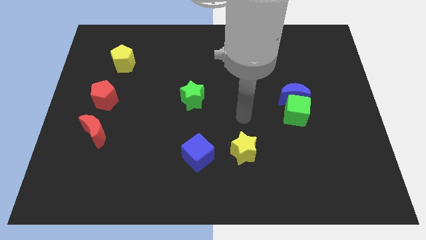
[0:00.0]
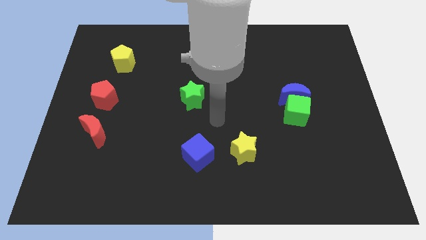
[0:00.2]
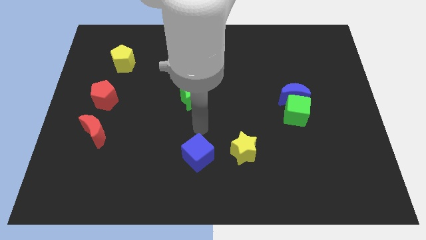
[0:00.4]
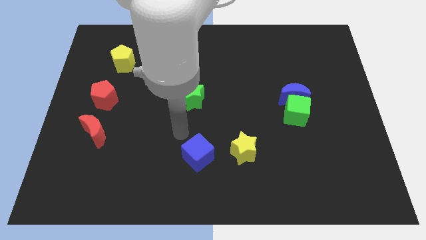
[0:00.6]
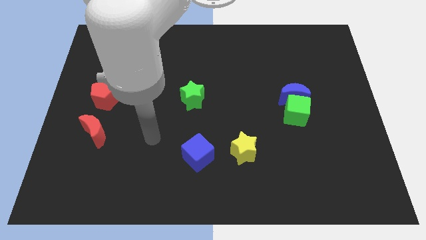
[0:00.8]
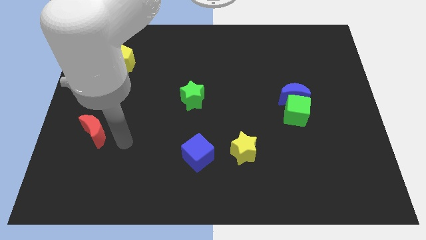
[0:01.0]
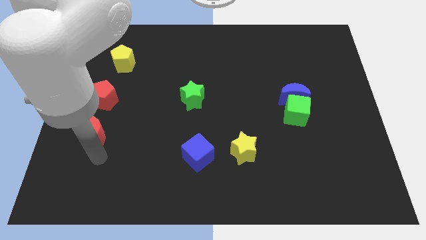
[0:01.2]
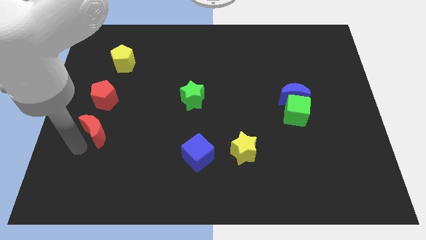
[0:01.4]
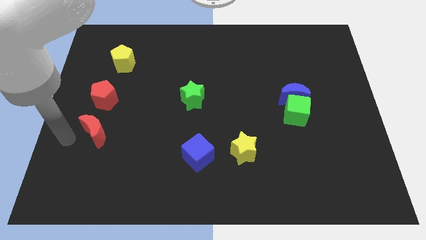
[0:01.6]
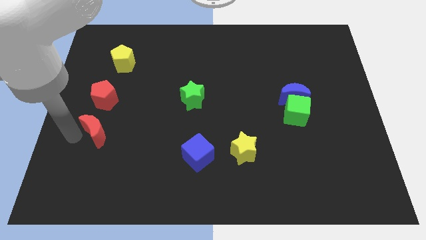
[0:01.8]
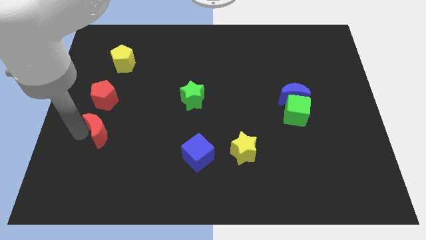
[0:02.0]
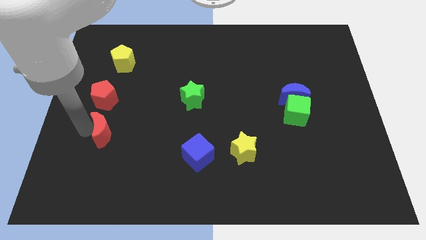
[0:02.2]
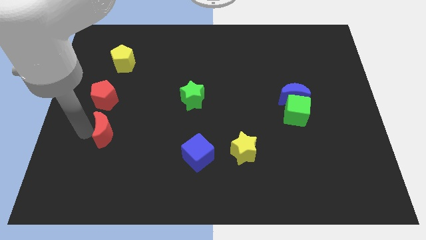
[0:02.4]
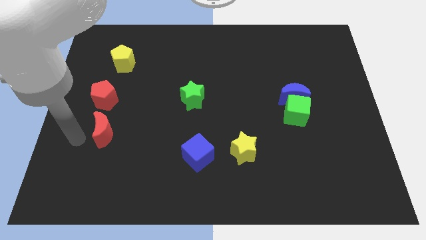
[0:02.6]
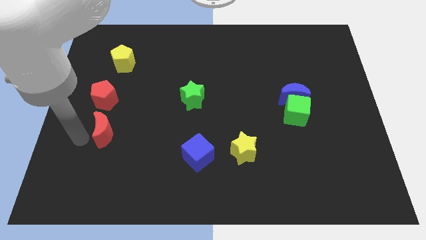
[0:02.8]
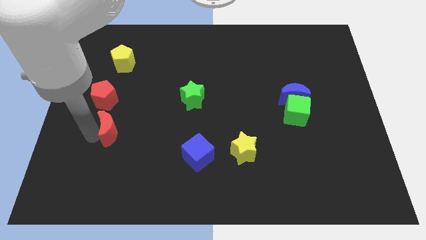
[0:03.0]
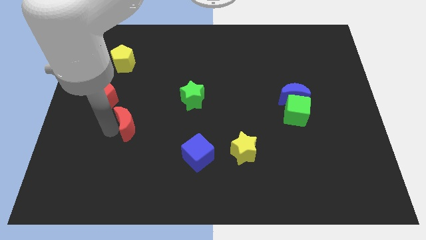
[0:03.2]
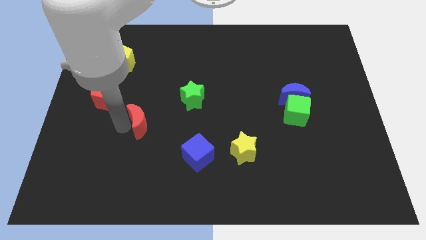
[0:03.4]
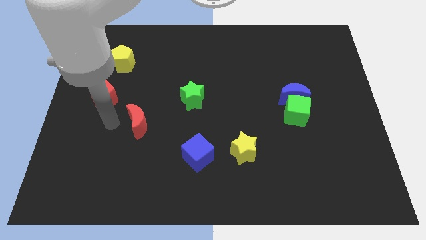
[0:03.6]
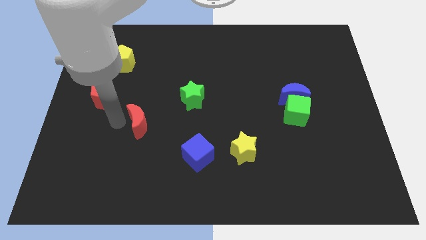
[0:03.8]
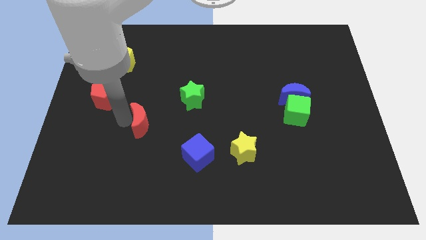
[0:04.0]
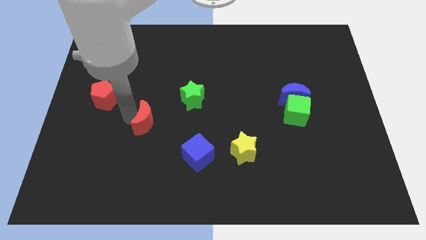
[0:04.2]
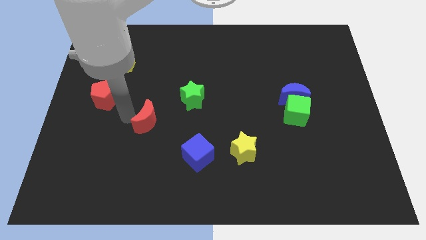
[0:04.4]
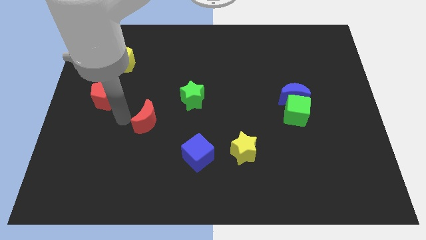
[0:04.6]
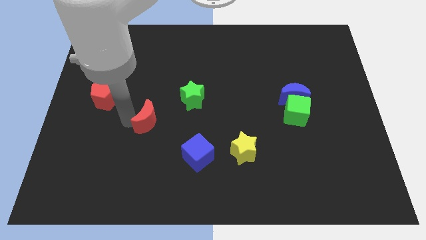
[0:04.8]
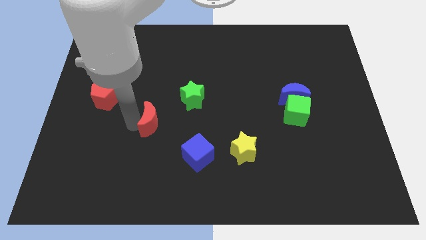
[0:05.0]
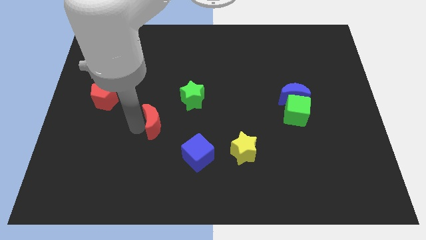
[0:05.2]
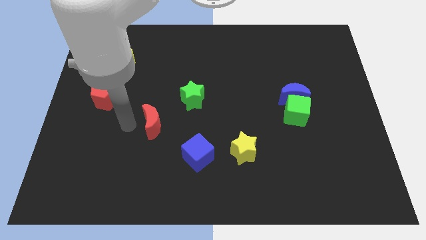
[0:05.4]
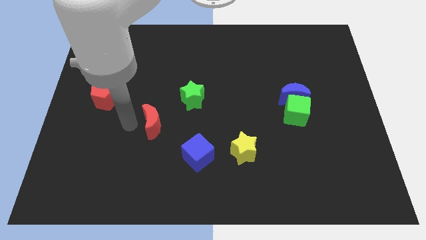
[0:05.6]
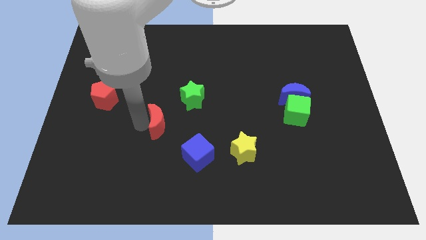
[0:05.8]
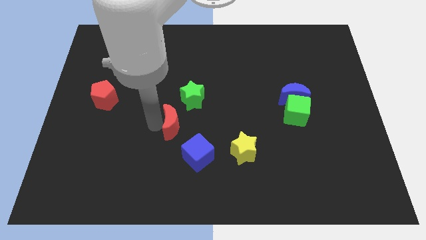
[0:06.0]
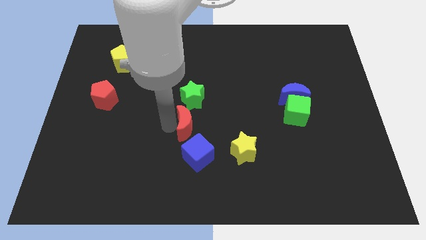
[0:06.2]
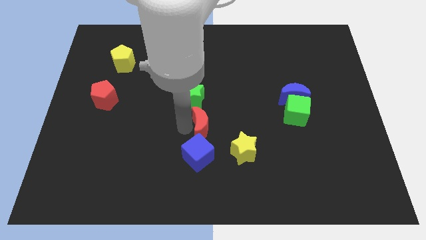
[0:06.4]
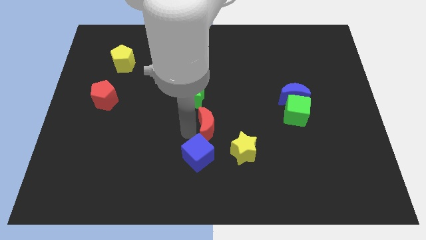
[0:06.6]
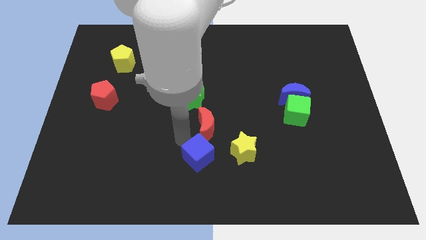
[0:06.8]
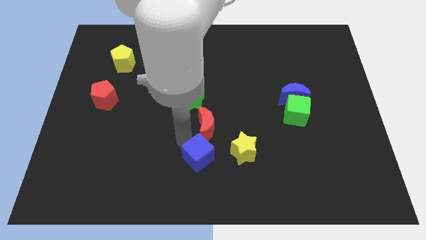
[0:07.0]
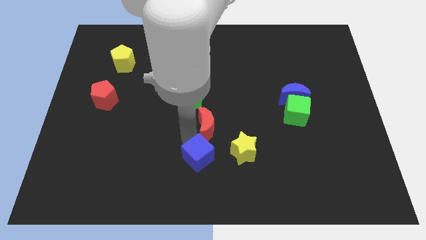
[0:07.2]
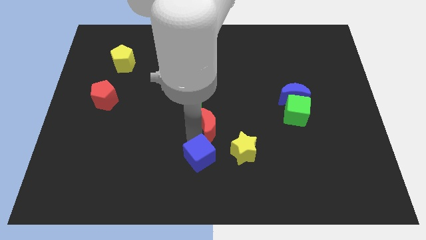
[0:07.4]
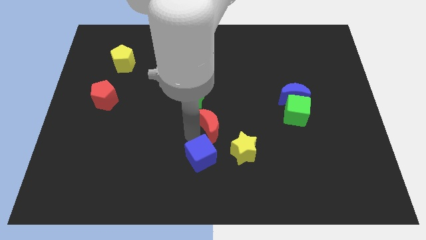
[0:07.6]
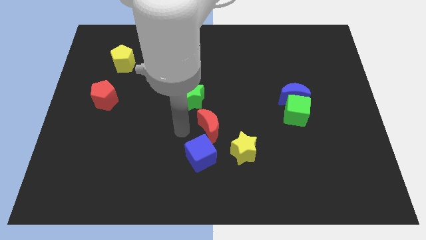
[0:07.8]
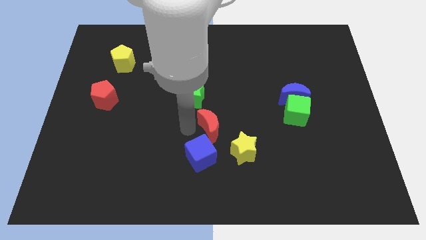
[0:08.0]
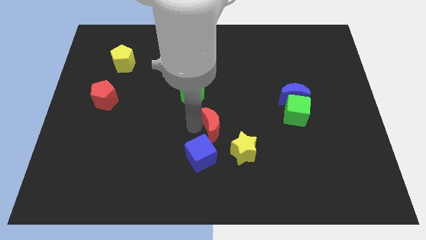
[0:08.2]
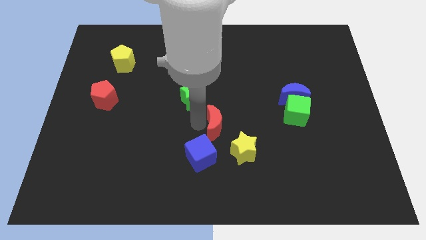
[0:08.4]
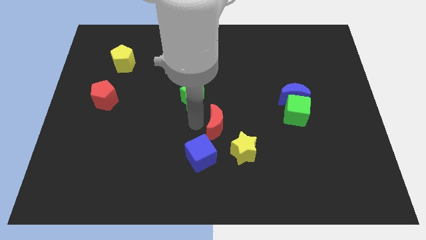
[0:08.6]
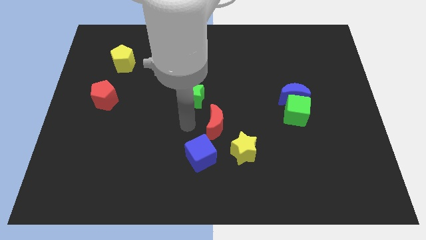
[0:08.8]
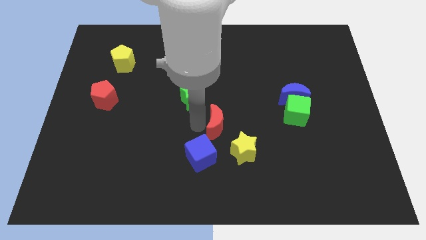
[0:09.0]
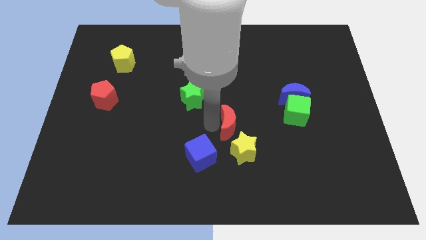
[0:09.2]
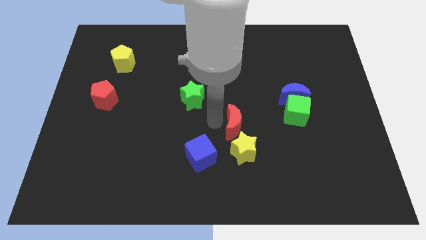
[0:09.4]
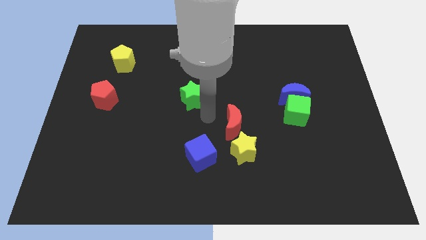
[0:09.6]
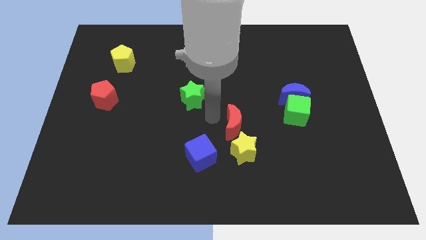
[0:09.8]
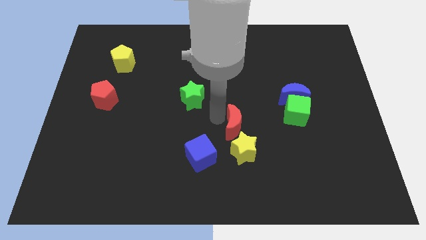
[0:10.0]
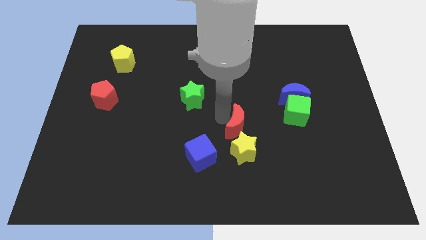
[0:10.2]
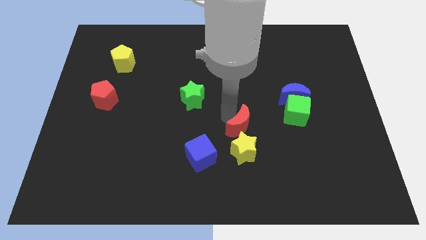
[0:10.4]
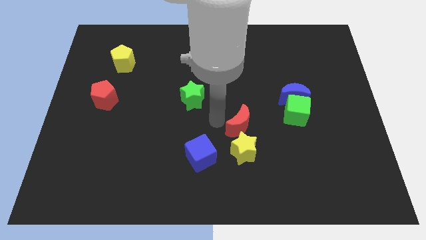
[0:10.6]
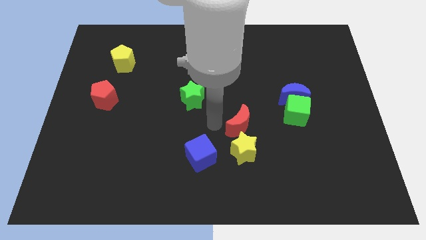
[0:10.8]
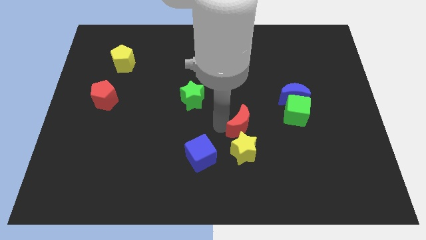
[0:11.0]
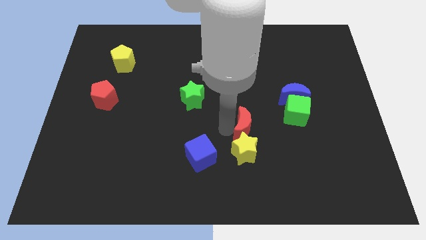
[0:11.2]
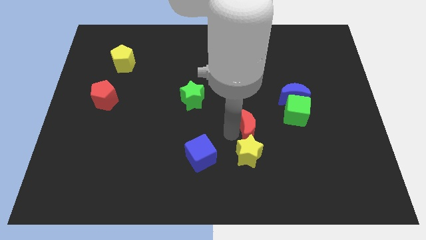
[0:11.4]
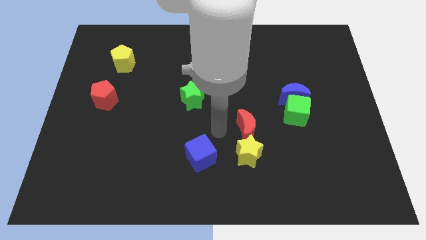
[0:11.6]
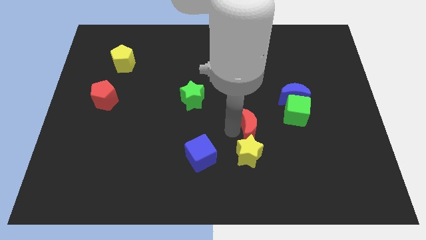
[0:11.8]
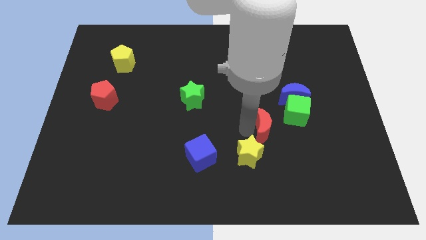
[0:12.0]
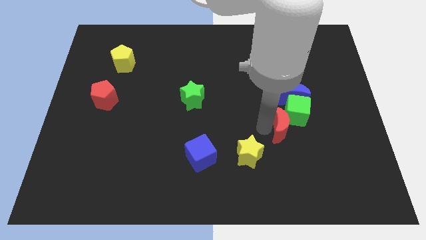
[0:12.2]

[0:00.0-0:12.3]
slide the red moon below the blue moon

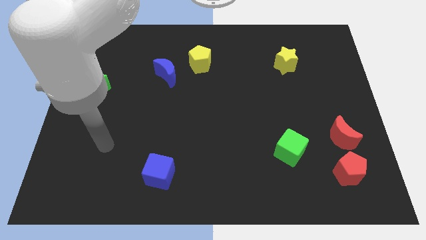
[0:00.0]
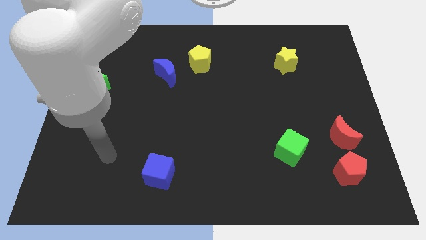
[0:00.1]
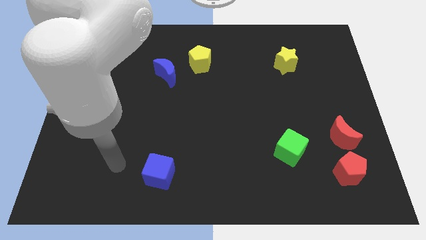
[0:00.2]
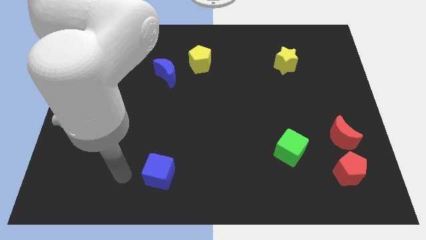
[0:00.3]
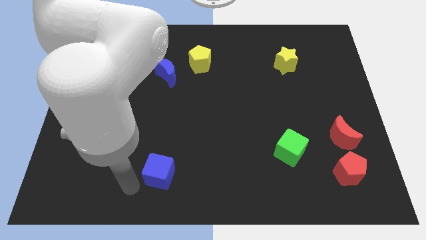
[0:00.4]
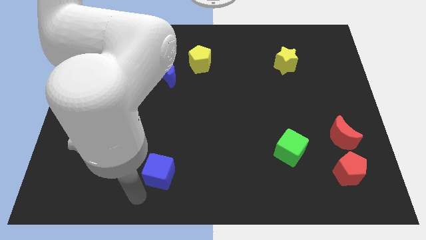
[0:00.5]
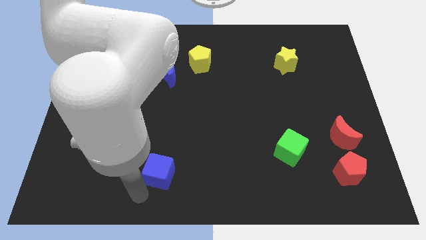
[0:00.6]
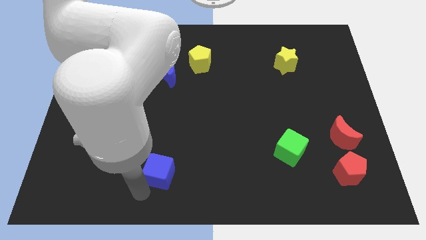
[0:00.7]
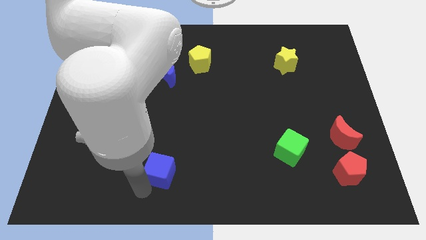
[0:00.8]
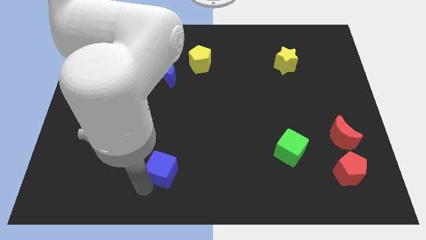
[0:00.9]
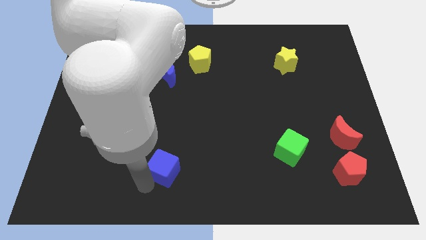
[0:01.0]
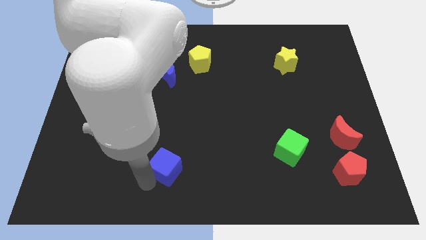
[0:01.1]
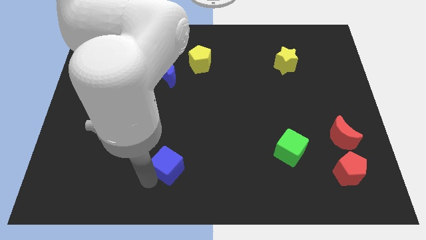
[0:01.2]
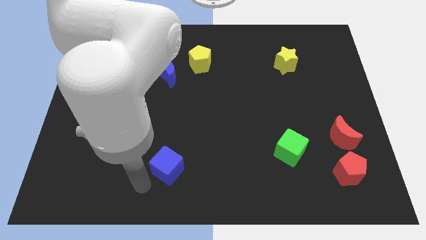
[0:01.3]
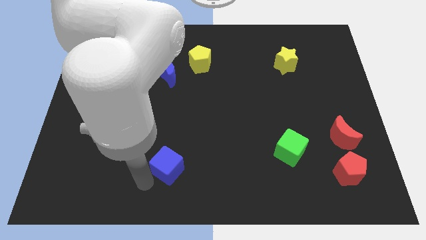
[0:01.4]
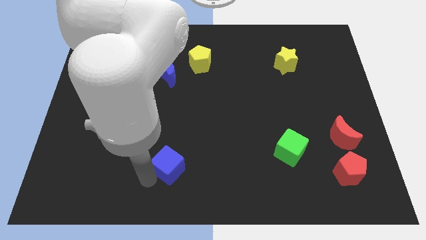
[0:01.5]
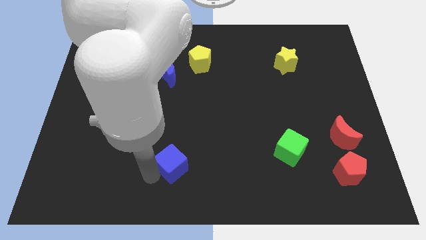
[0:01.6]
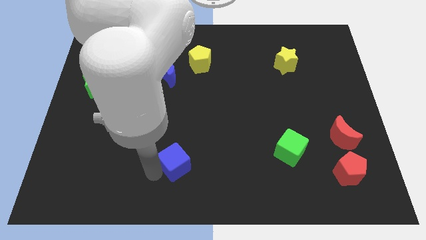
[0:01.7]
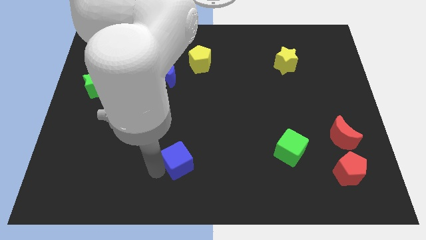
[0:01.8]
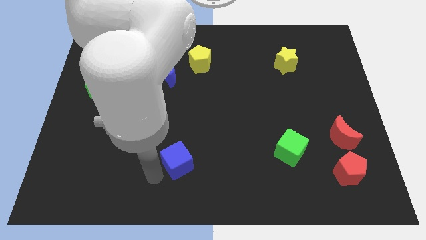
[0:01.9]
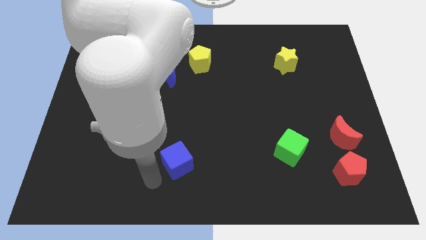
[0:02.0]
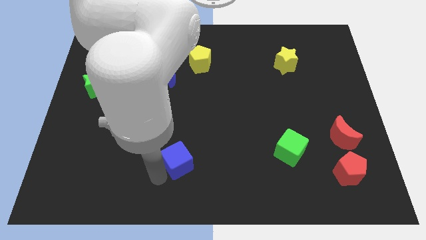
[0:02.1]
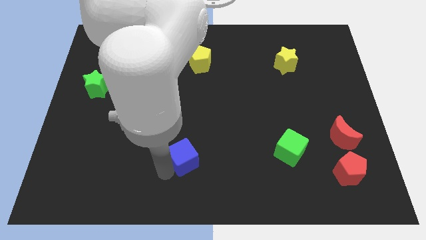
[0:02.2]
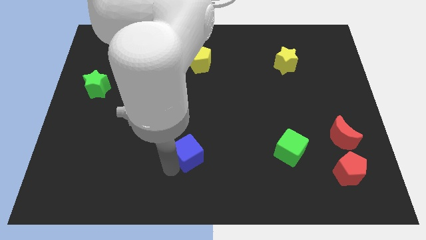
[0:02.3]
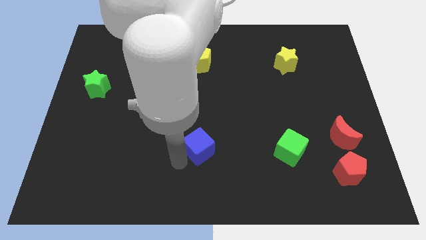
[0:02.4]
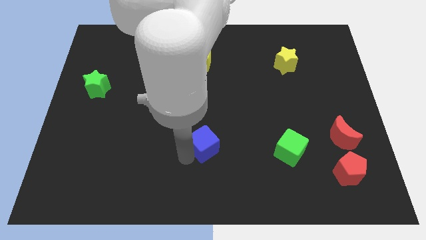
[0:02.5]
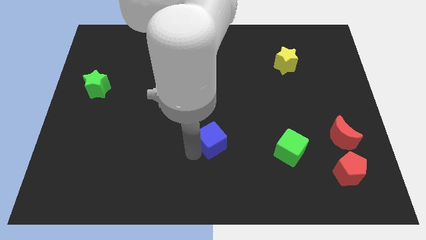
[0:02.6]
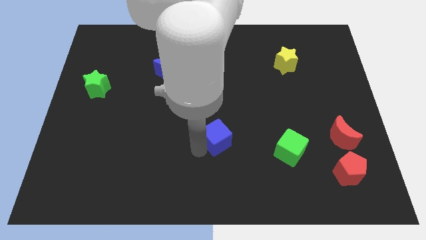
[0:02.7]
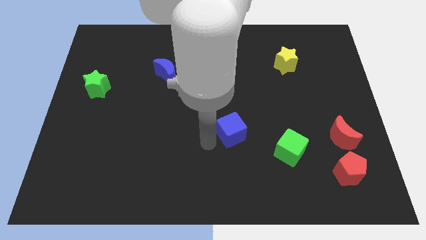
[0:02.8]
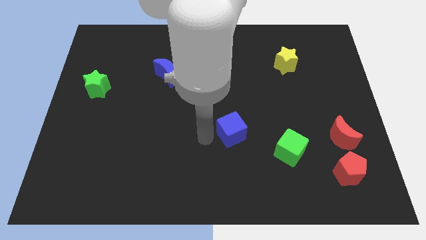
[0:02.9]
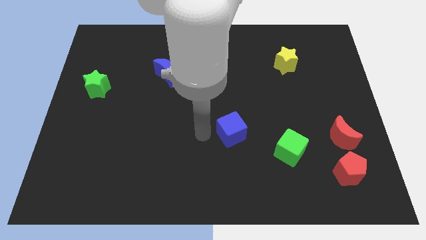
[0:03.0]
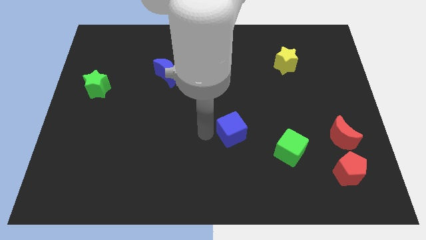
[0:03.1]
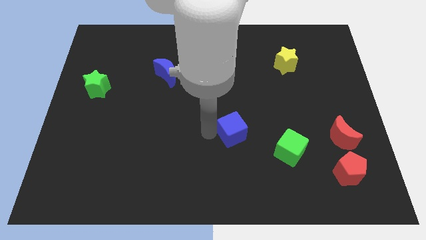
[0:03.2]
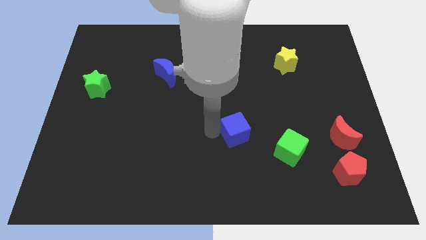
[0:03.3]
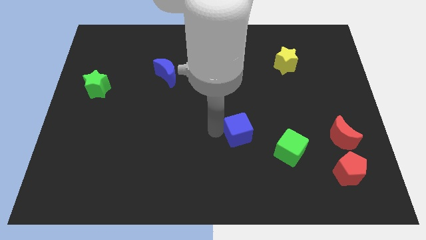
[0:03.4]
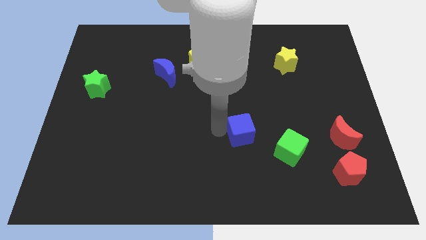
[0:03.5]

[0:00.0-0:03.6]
slide the blue cube diagonally up and to the left of the green cube
